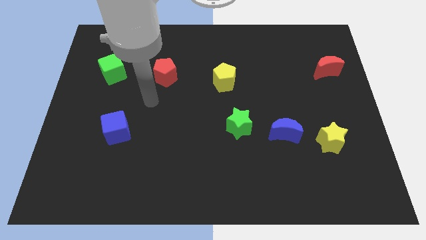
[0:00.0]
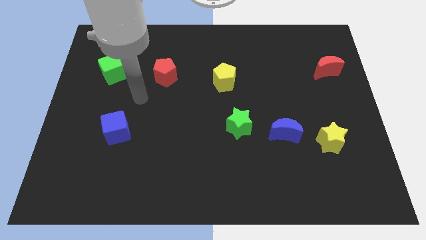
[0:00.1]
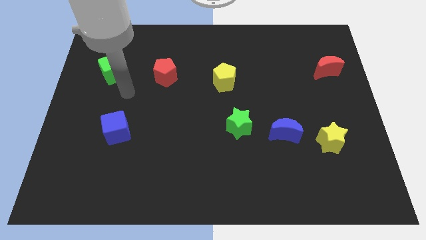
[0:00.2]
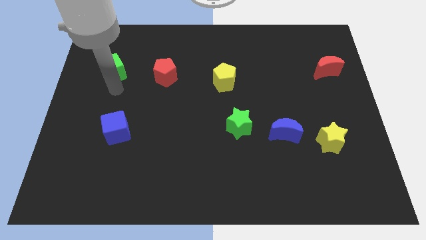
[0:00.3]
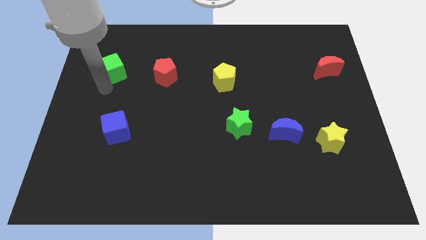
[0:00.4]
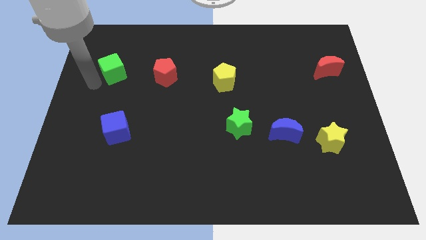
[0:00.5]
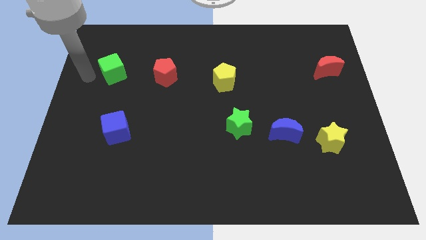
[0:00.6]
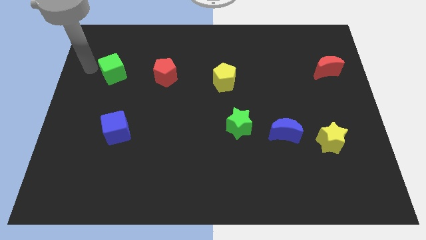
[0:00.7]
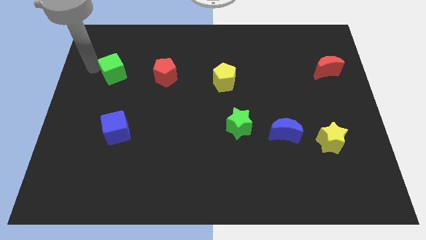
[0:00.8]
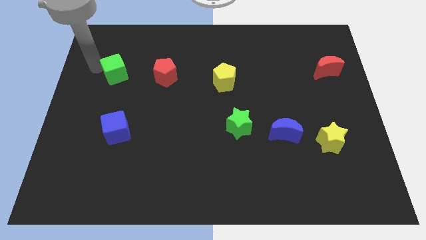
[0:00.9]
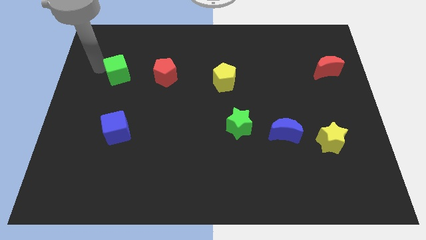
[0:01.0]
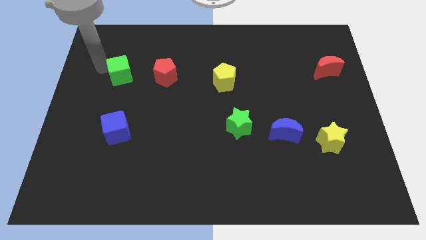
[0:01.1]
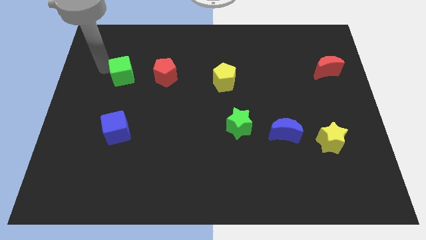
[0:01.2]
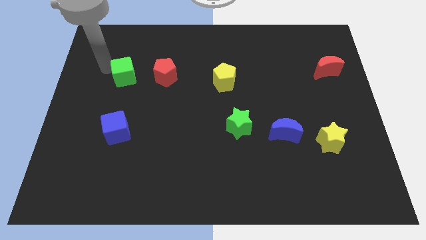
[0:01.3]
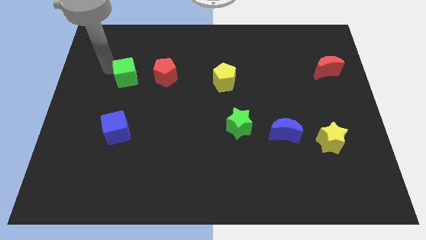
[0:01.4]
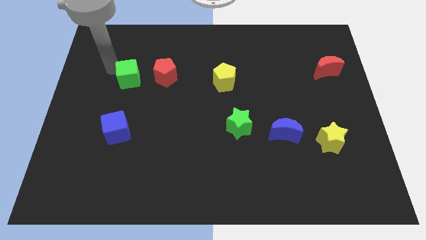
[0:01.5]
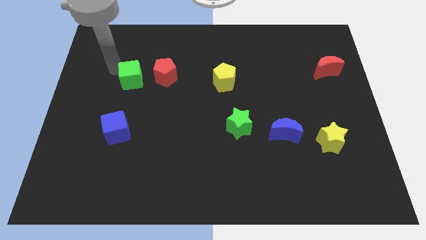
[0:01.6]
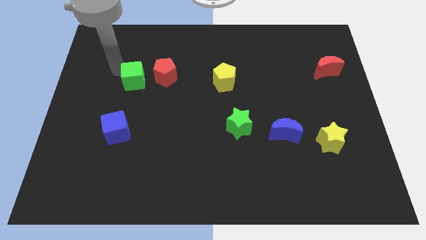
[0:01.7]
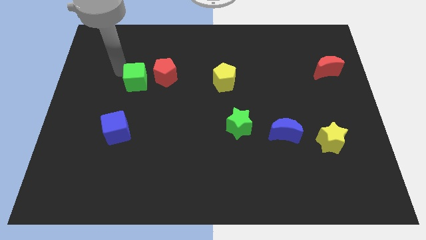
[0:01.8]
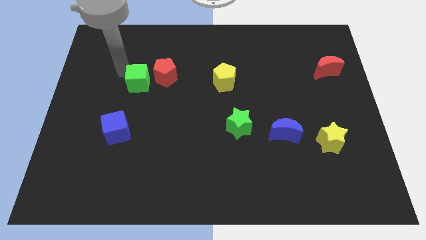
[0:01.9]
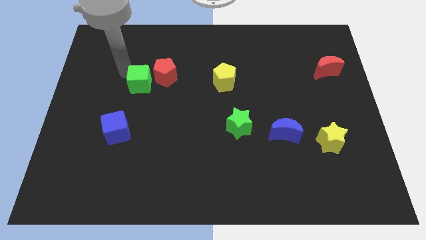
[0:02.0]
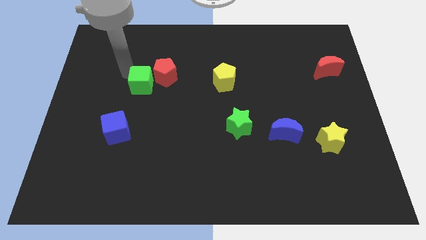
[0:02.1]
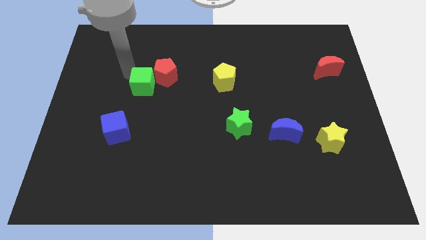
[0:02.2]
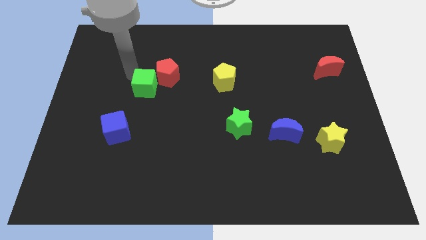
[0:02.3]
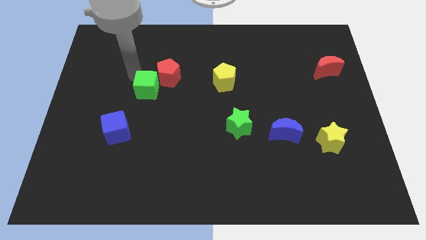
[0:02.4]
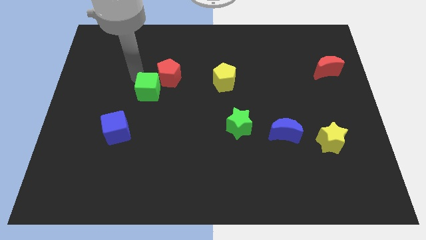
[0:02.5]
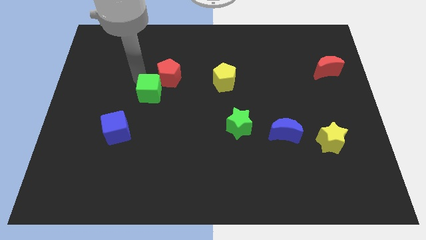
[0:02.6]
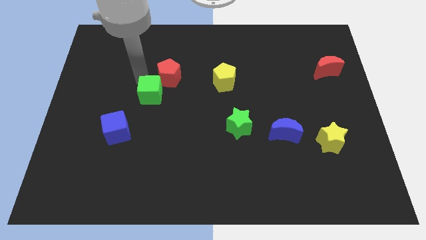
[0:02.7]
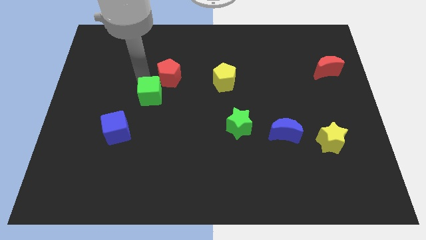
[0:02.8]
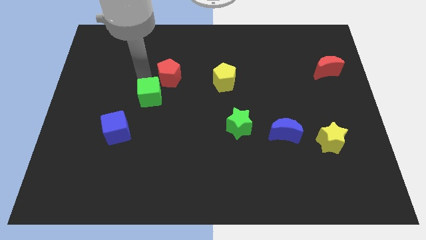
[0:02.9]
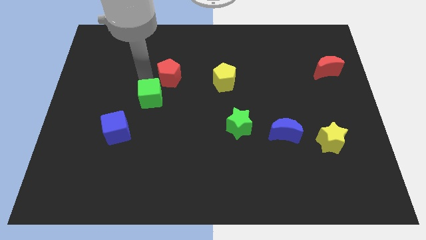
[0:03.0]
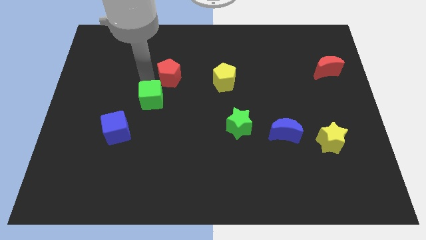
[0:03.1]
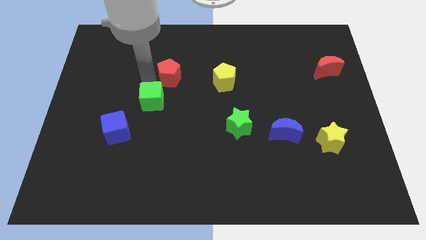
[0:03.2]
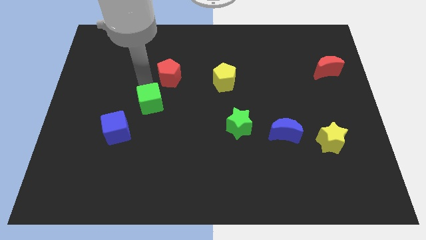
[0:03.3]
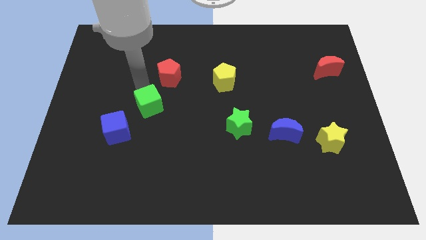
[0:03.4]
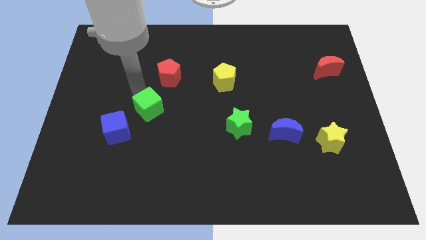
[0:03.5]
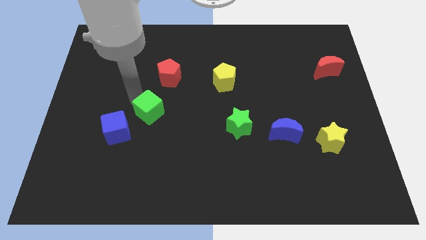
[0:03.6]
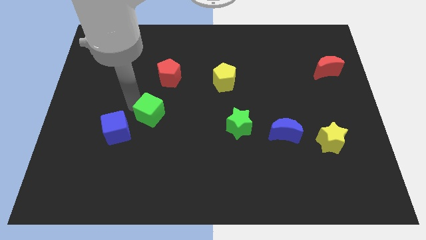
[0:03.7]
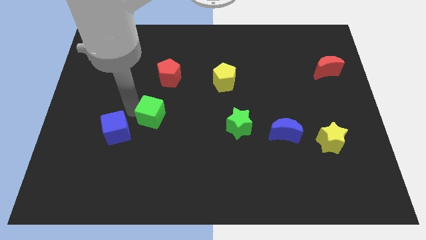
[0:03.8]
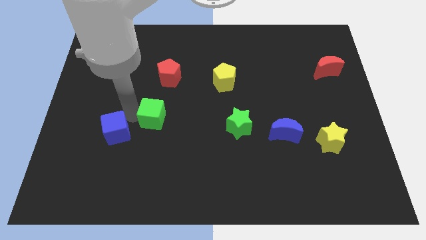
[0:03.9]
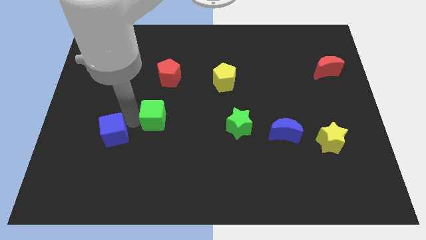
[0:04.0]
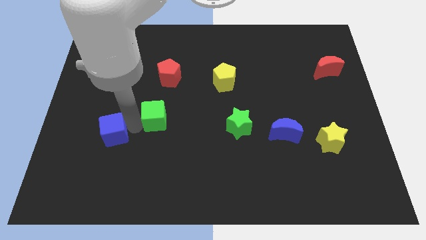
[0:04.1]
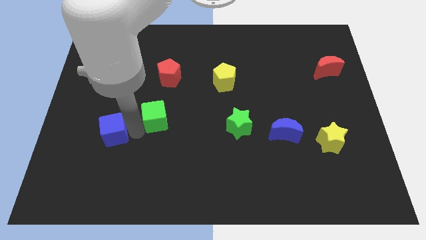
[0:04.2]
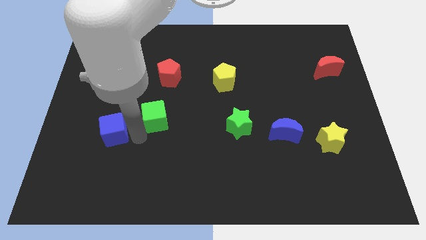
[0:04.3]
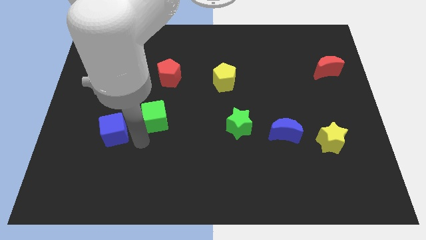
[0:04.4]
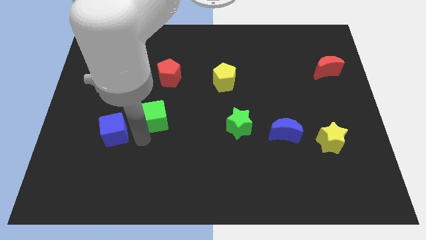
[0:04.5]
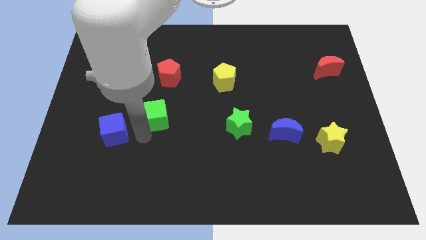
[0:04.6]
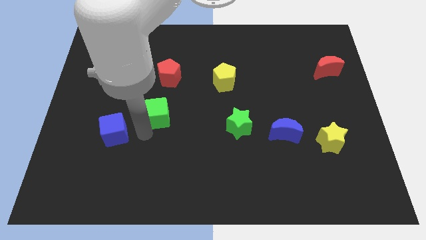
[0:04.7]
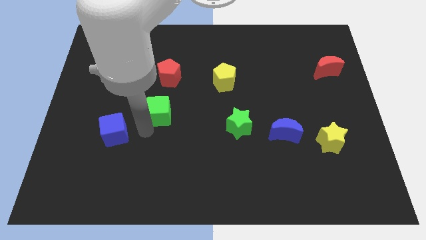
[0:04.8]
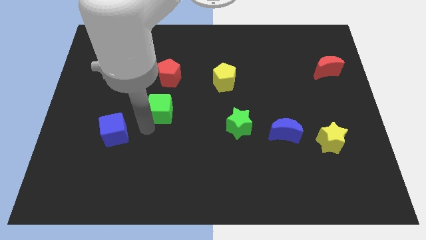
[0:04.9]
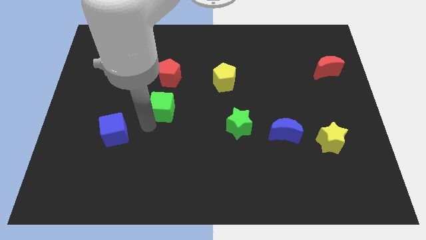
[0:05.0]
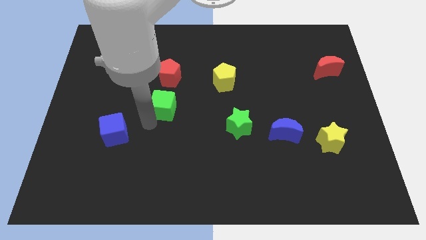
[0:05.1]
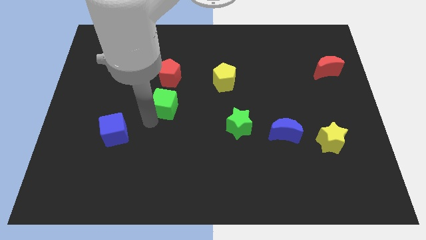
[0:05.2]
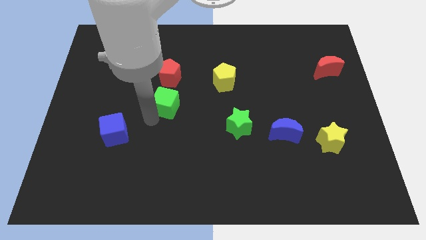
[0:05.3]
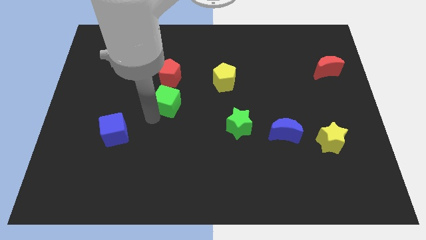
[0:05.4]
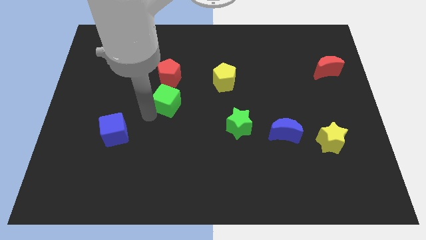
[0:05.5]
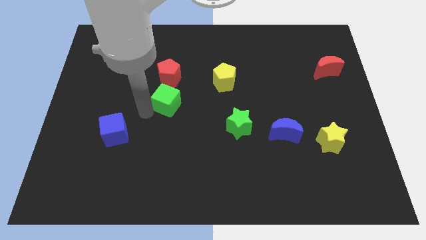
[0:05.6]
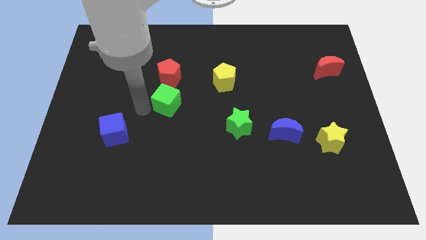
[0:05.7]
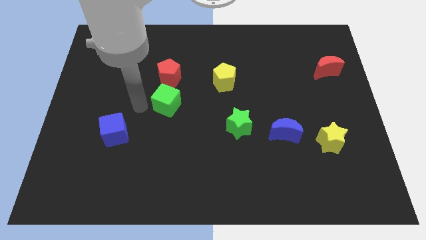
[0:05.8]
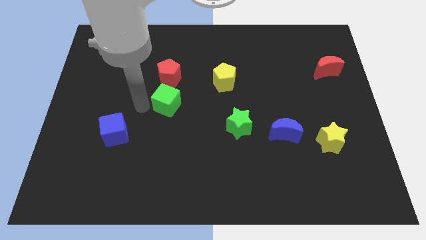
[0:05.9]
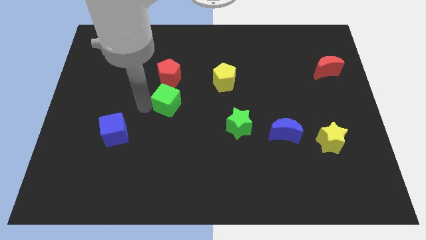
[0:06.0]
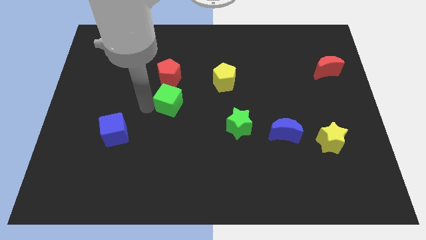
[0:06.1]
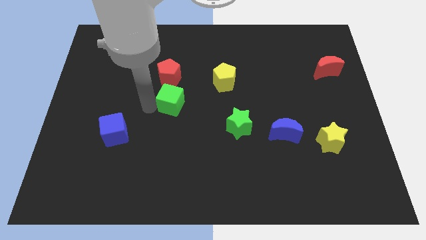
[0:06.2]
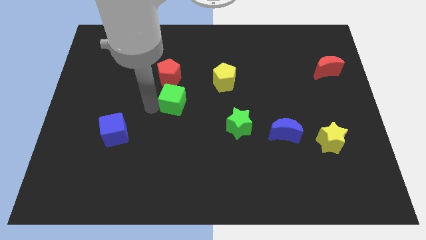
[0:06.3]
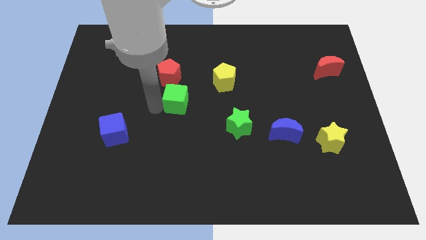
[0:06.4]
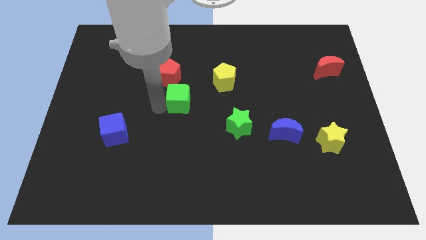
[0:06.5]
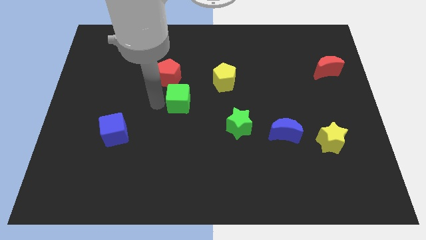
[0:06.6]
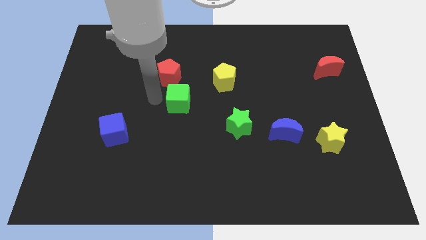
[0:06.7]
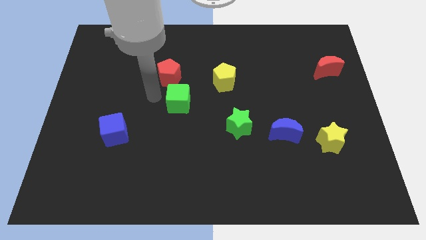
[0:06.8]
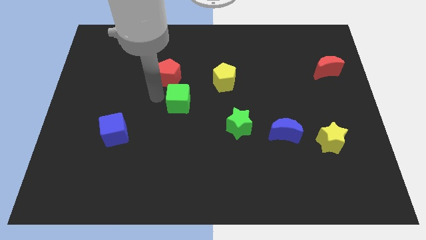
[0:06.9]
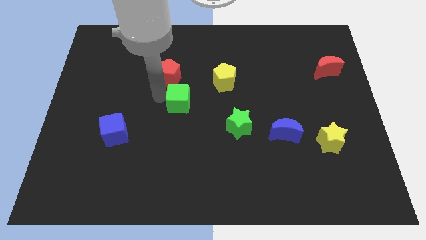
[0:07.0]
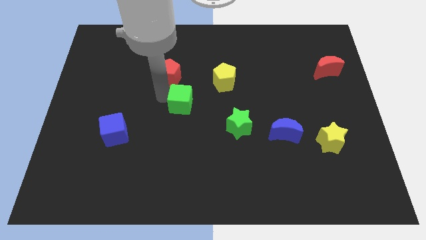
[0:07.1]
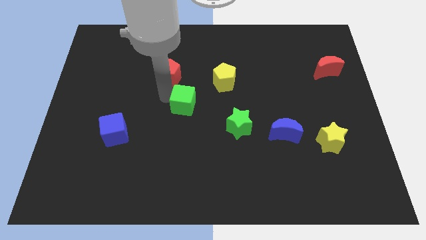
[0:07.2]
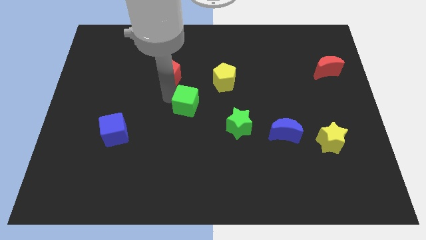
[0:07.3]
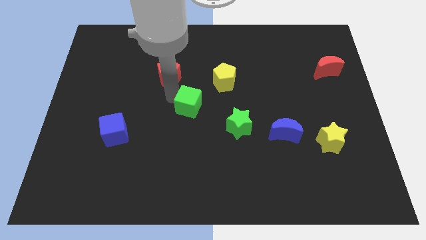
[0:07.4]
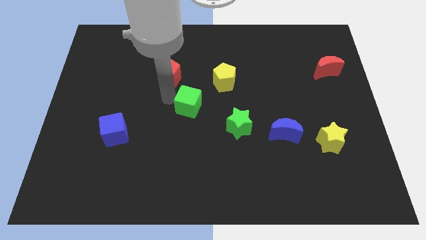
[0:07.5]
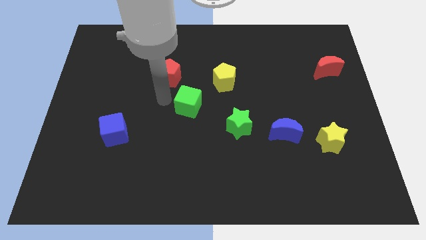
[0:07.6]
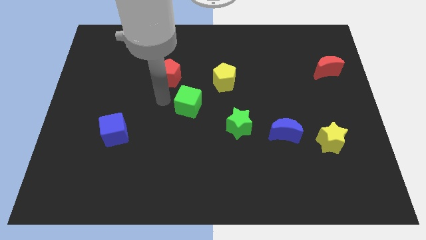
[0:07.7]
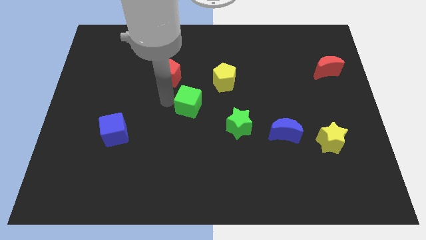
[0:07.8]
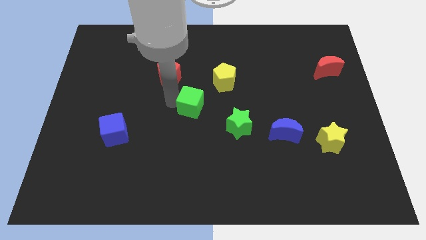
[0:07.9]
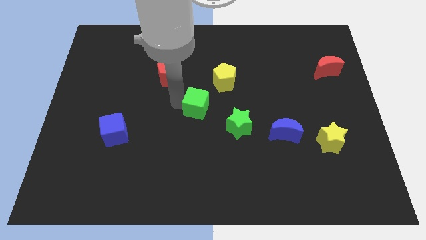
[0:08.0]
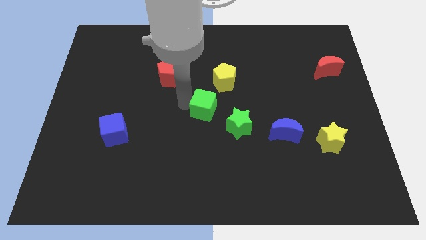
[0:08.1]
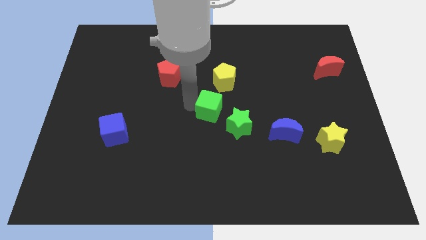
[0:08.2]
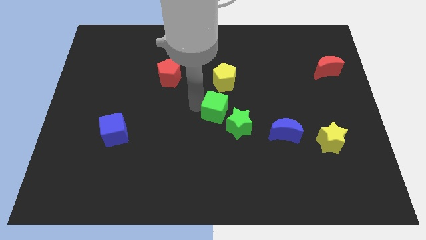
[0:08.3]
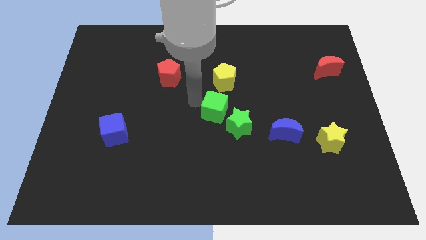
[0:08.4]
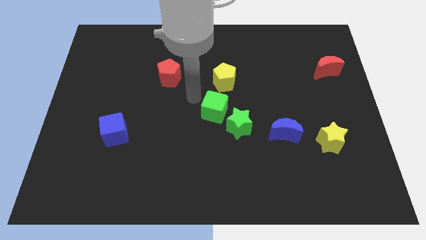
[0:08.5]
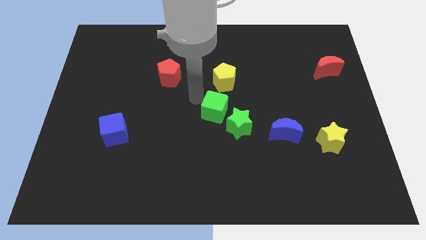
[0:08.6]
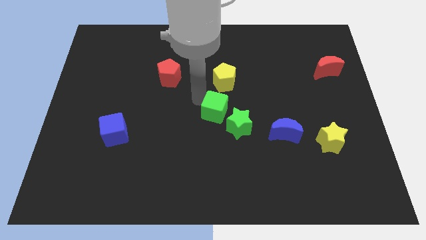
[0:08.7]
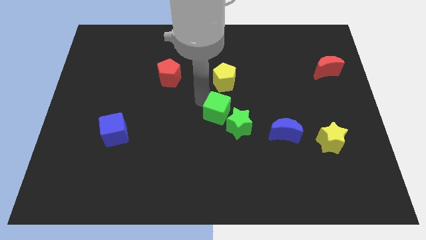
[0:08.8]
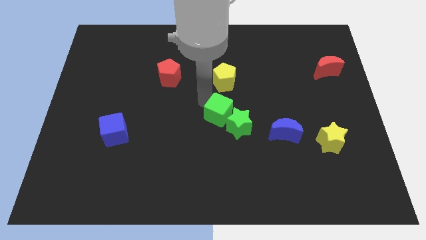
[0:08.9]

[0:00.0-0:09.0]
push the green cube to the green star
